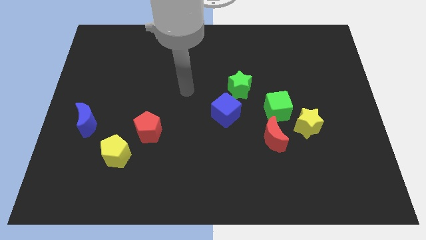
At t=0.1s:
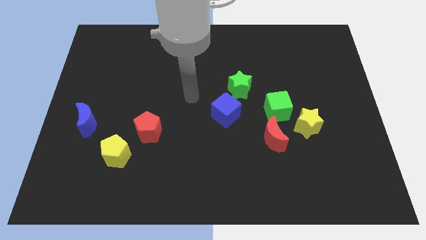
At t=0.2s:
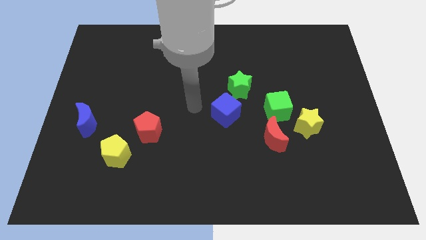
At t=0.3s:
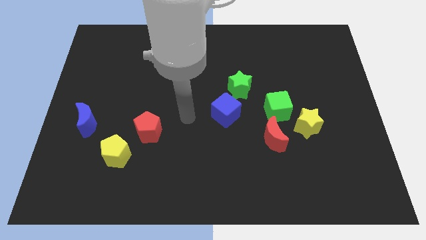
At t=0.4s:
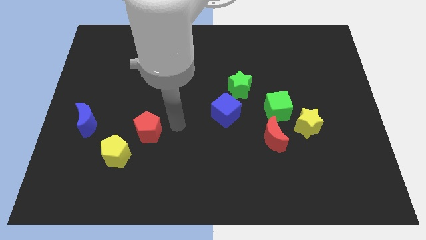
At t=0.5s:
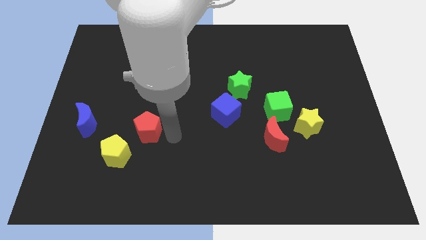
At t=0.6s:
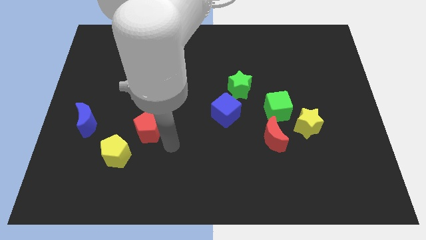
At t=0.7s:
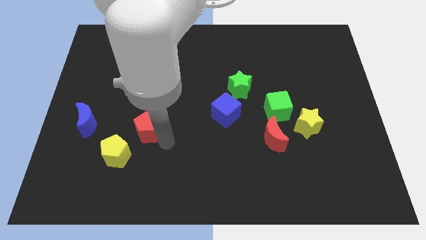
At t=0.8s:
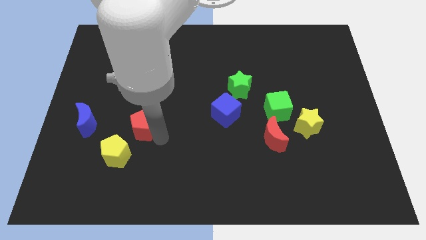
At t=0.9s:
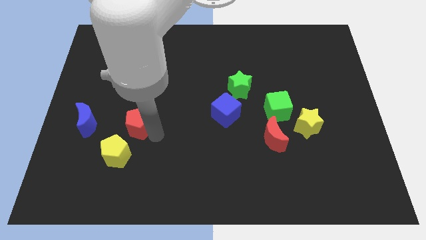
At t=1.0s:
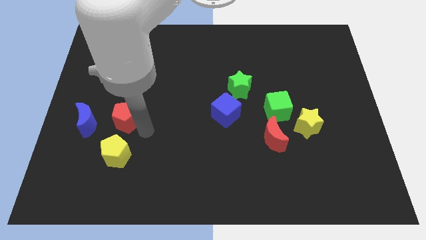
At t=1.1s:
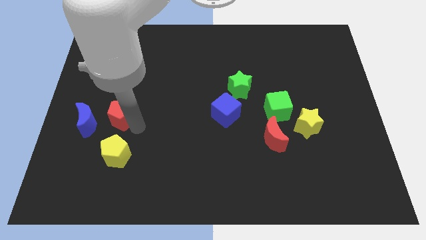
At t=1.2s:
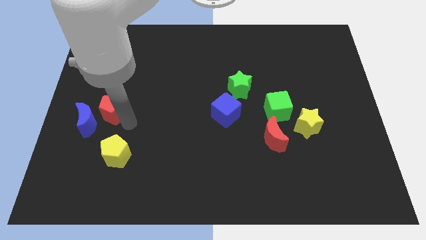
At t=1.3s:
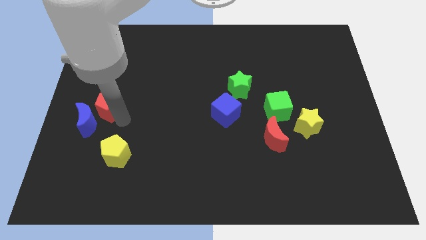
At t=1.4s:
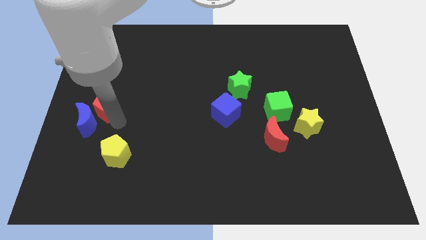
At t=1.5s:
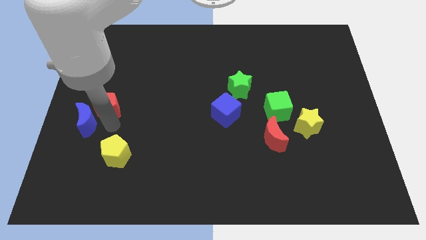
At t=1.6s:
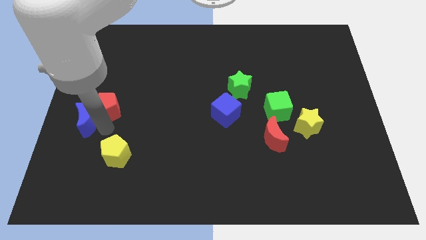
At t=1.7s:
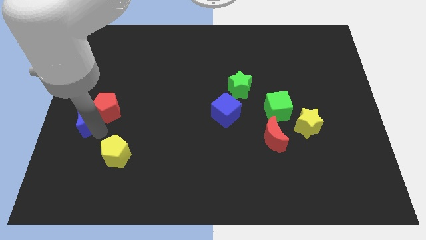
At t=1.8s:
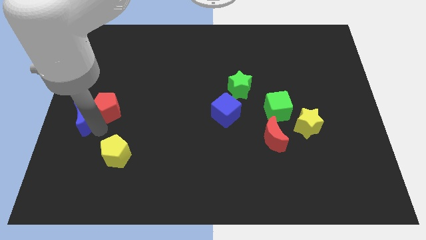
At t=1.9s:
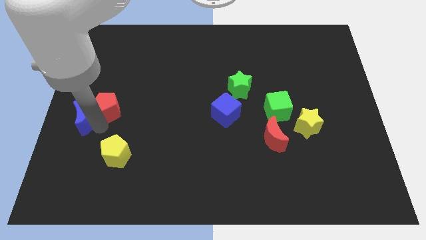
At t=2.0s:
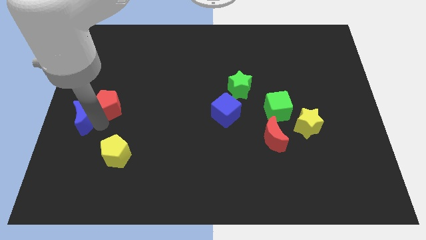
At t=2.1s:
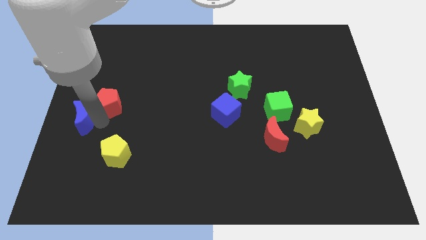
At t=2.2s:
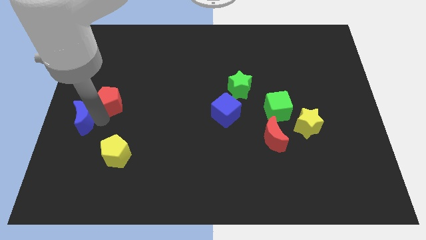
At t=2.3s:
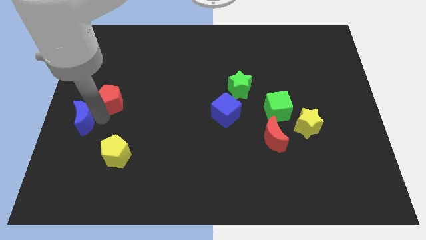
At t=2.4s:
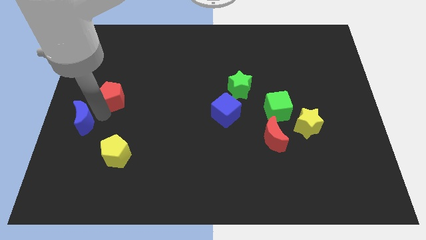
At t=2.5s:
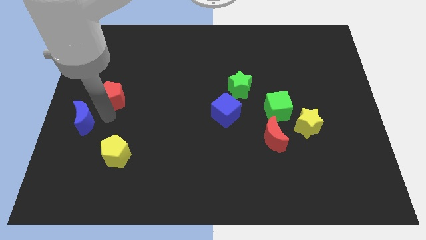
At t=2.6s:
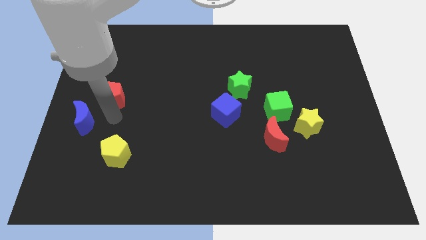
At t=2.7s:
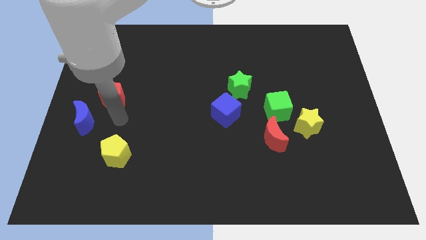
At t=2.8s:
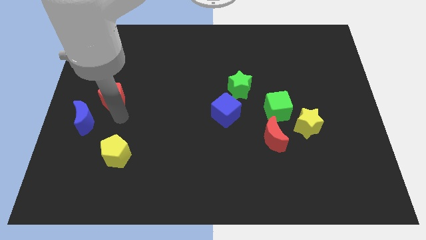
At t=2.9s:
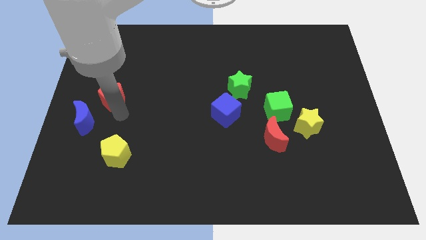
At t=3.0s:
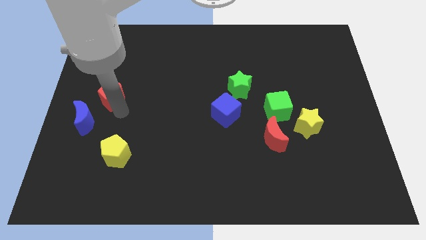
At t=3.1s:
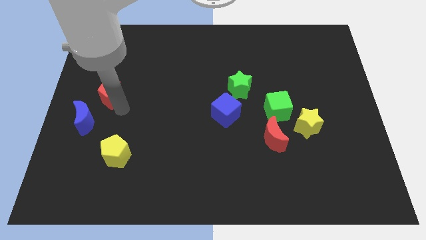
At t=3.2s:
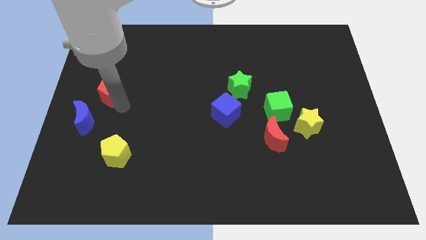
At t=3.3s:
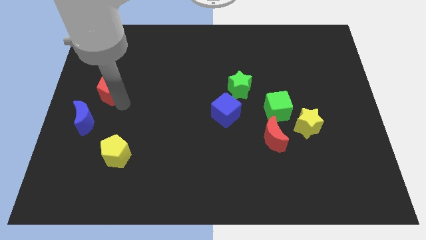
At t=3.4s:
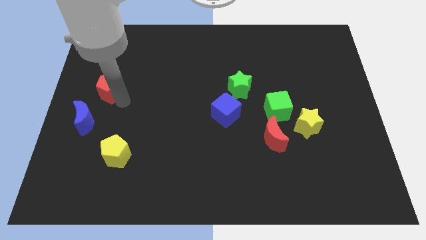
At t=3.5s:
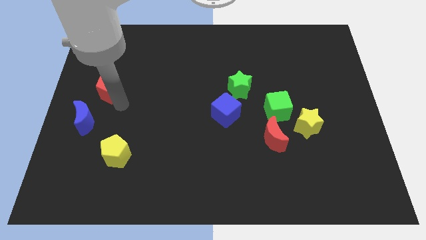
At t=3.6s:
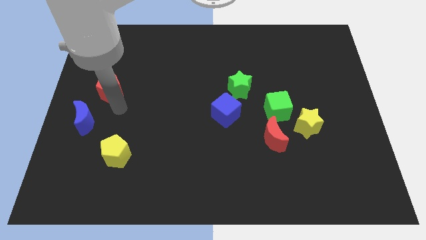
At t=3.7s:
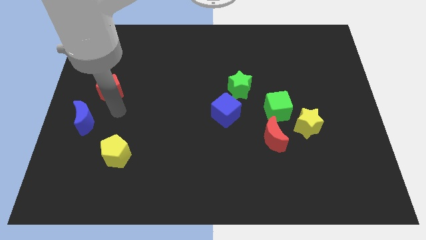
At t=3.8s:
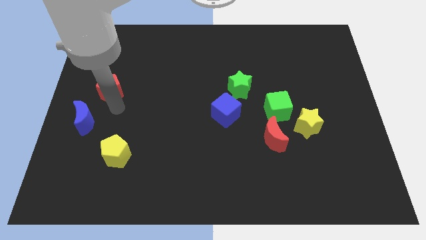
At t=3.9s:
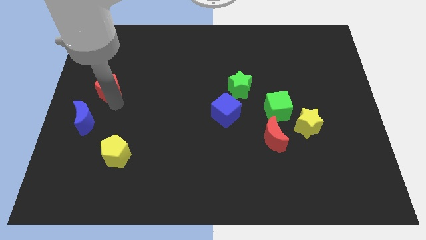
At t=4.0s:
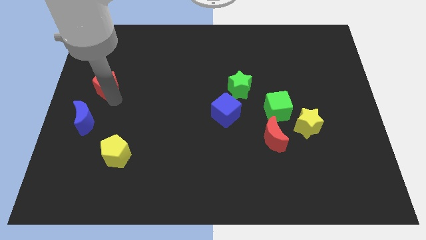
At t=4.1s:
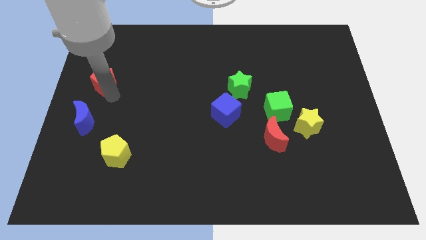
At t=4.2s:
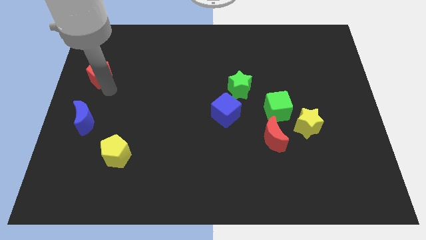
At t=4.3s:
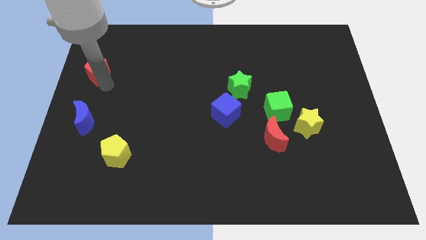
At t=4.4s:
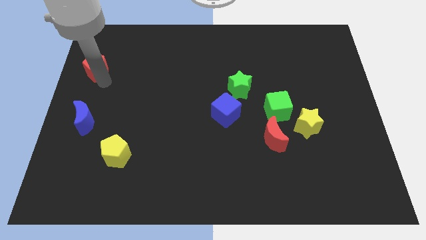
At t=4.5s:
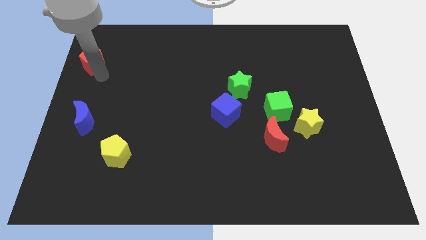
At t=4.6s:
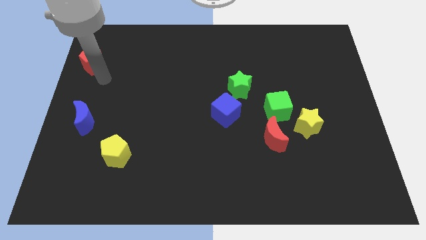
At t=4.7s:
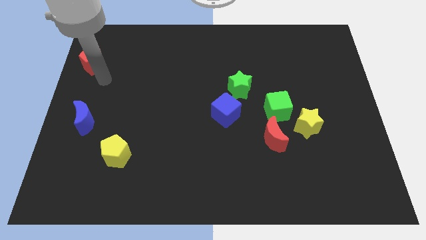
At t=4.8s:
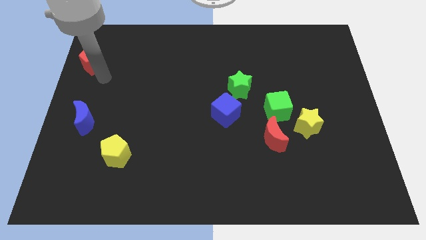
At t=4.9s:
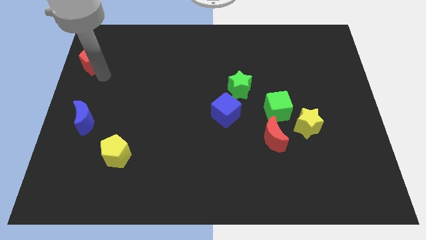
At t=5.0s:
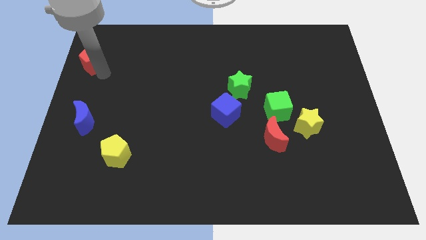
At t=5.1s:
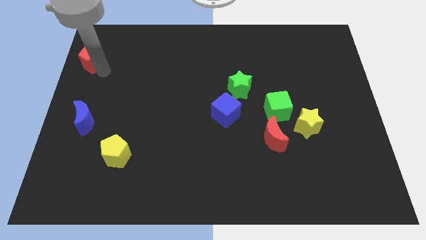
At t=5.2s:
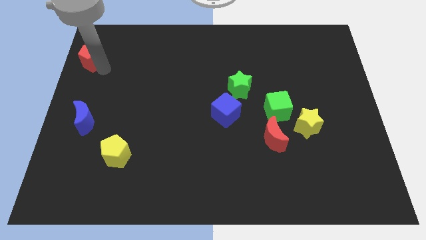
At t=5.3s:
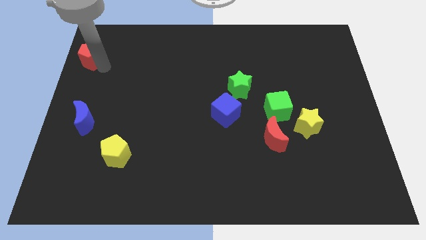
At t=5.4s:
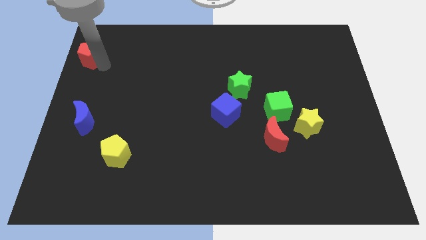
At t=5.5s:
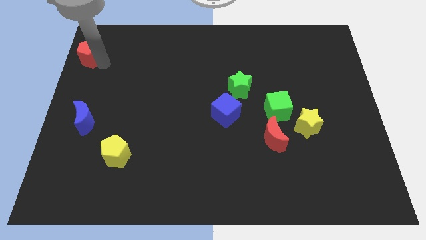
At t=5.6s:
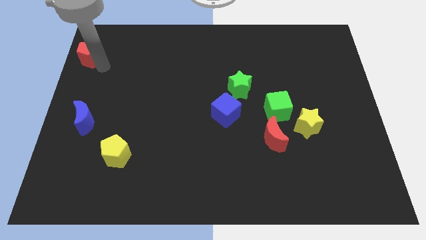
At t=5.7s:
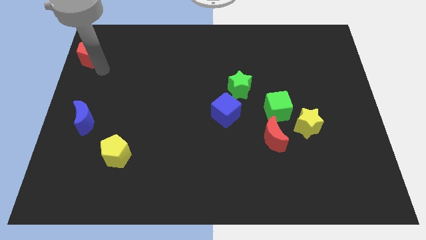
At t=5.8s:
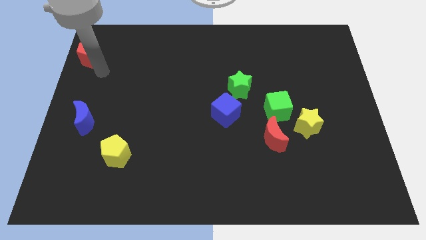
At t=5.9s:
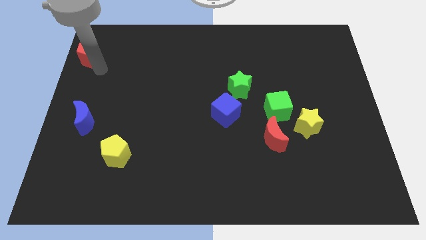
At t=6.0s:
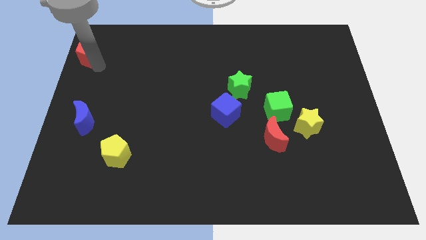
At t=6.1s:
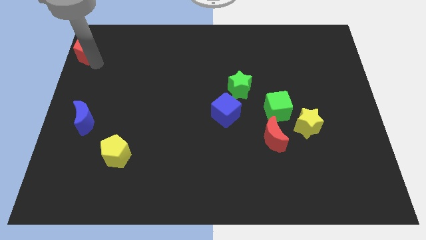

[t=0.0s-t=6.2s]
push the red pentagon to the top left

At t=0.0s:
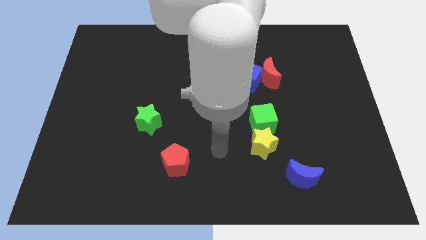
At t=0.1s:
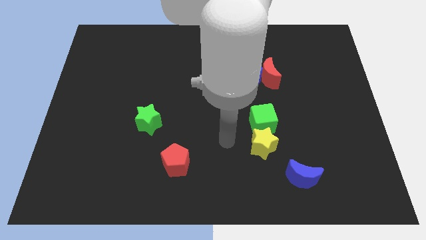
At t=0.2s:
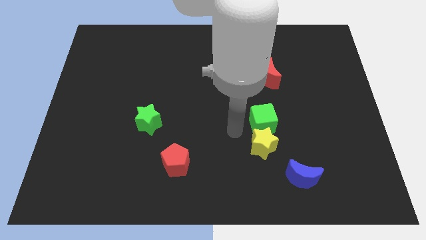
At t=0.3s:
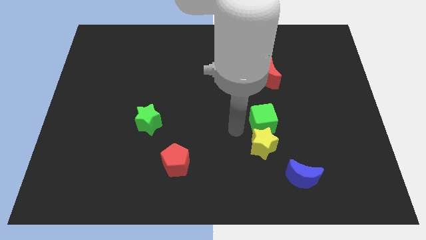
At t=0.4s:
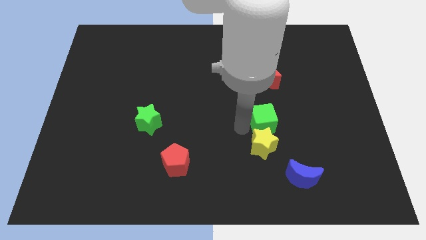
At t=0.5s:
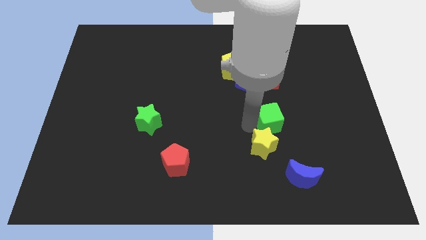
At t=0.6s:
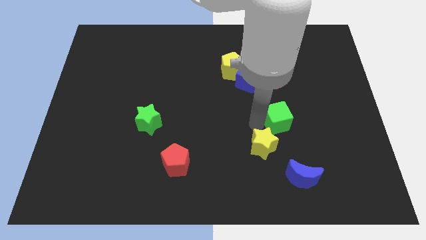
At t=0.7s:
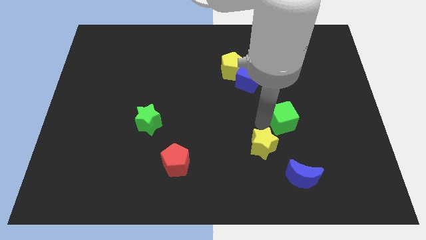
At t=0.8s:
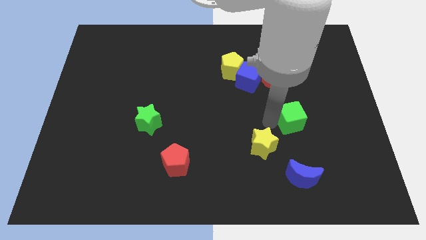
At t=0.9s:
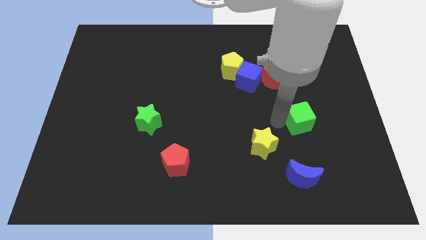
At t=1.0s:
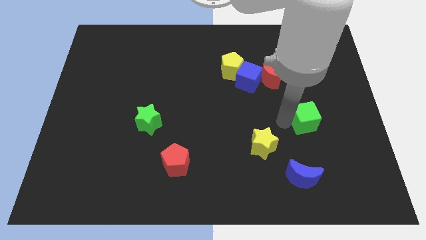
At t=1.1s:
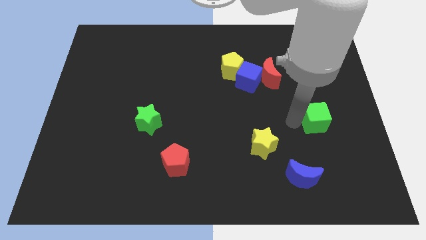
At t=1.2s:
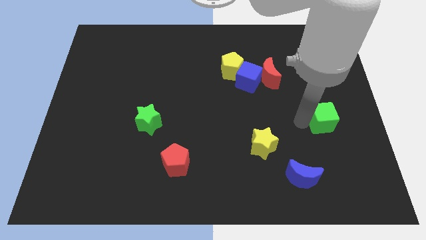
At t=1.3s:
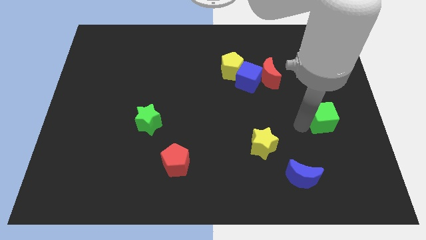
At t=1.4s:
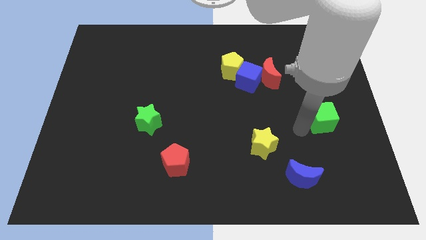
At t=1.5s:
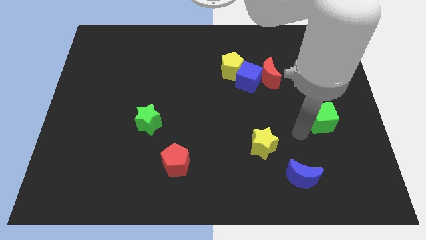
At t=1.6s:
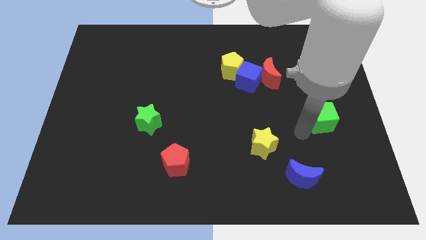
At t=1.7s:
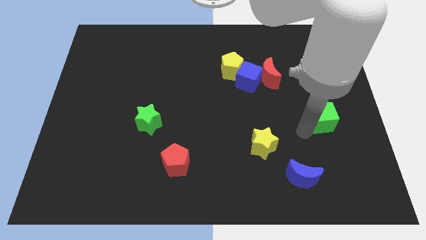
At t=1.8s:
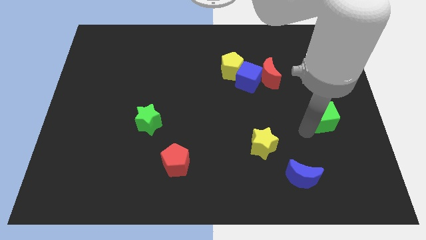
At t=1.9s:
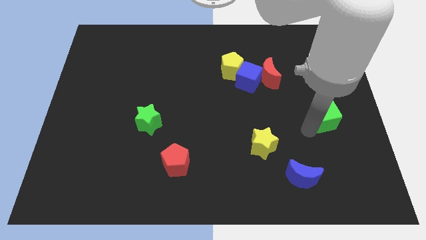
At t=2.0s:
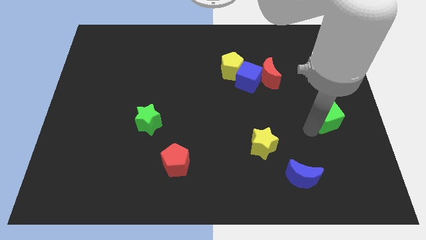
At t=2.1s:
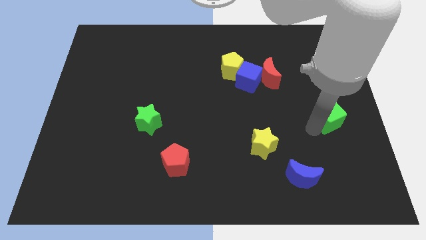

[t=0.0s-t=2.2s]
put the green cube to the right side of the board
